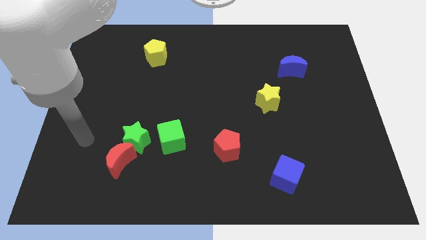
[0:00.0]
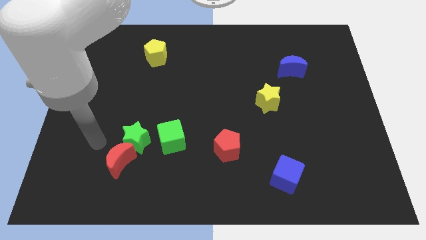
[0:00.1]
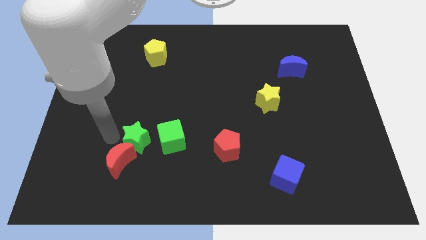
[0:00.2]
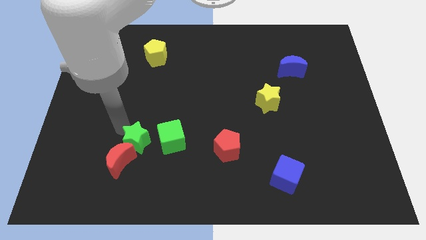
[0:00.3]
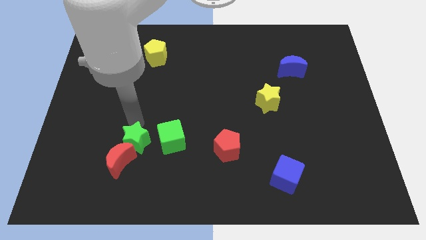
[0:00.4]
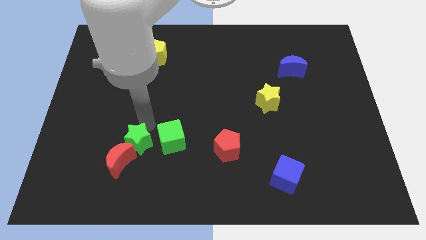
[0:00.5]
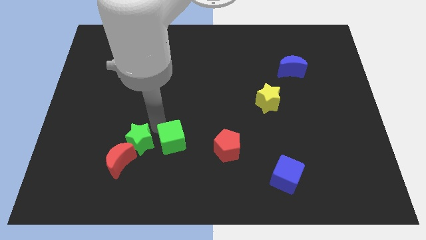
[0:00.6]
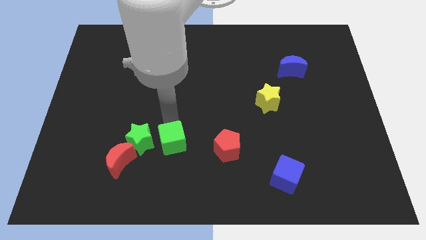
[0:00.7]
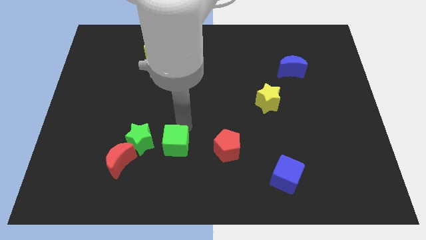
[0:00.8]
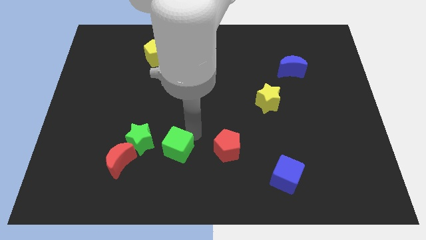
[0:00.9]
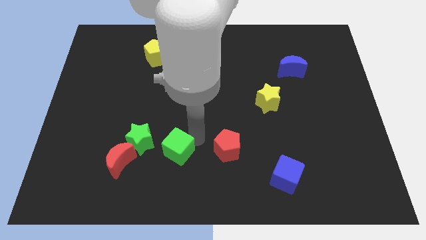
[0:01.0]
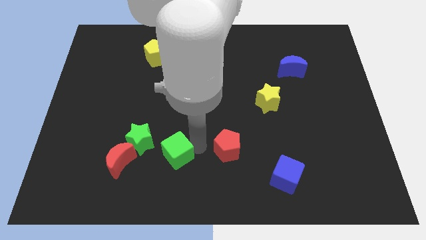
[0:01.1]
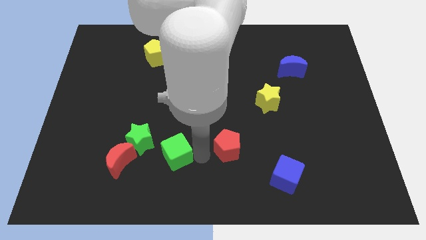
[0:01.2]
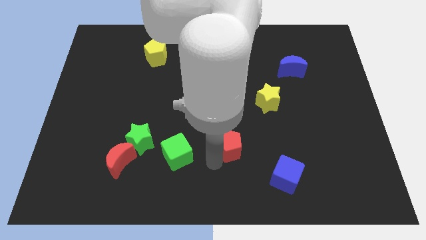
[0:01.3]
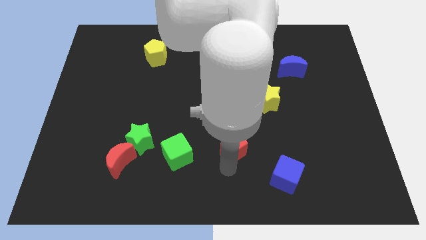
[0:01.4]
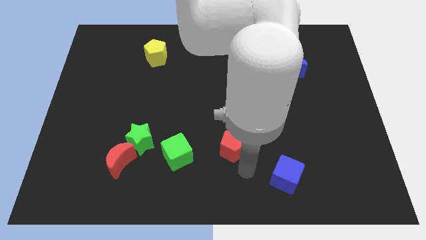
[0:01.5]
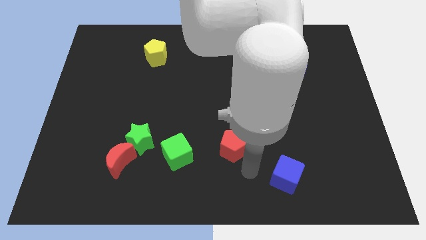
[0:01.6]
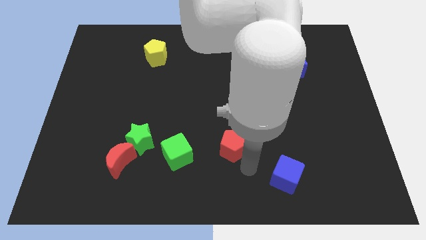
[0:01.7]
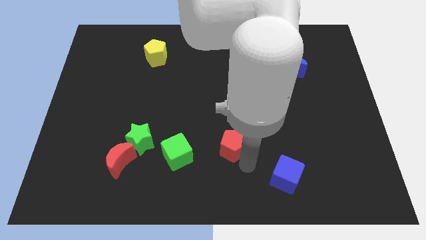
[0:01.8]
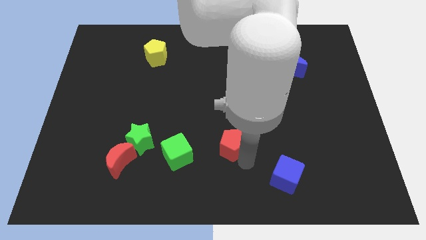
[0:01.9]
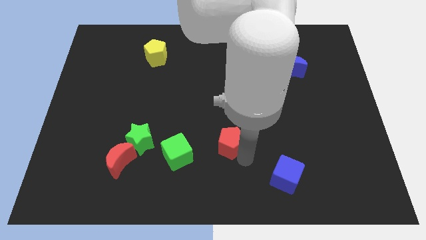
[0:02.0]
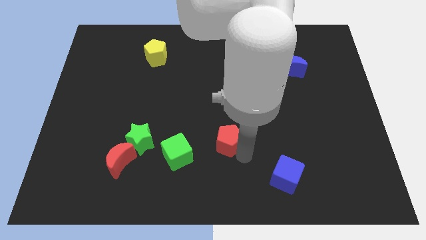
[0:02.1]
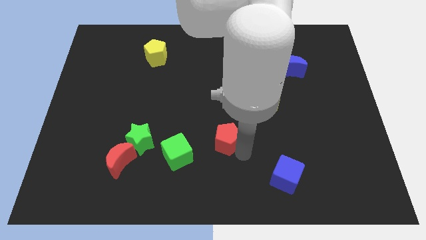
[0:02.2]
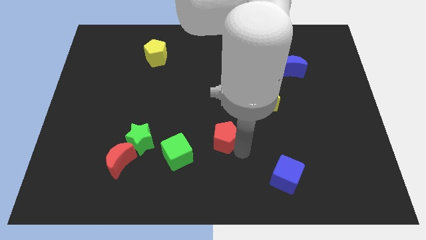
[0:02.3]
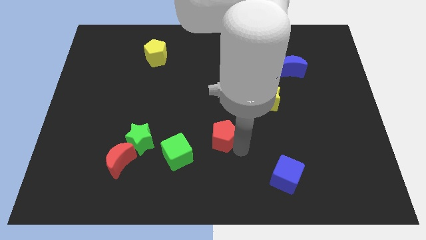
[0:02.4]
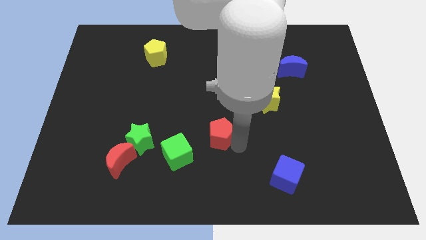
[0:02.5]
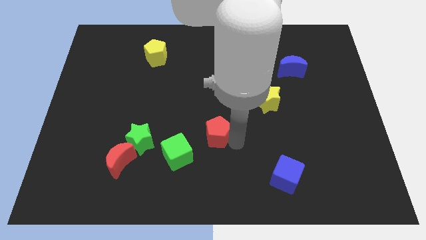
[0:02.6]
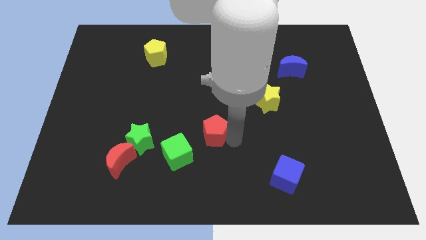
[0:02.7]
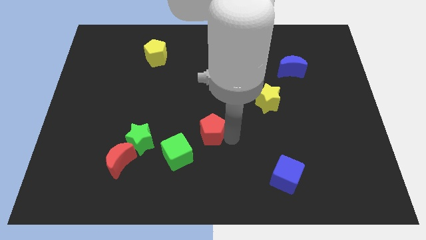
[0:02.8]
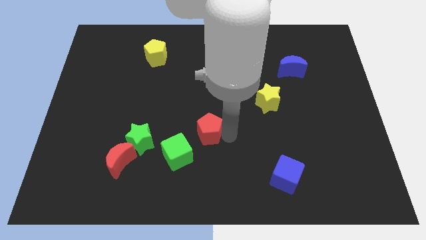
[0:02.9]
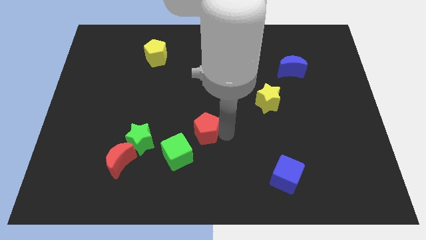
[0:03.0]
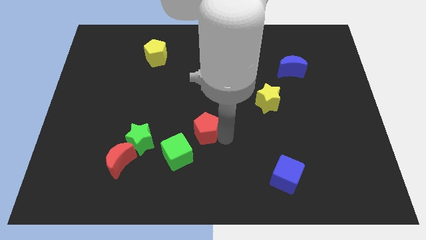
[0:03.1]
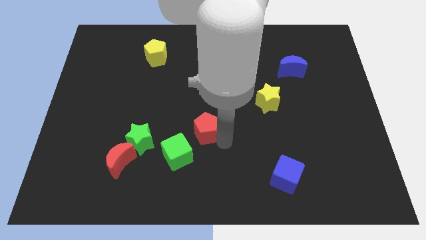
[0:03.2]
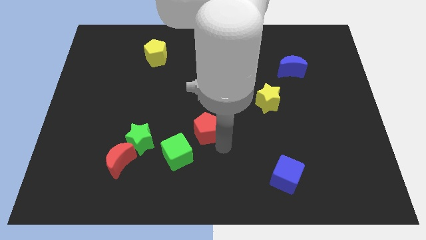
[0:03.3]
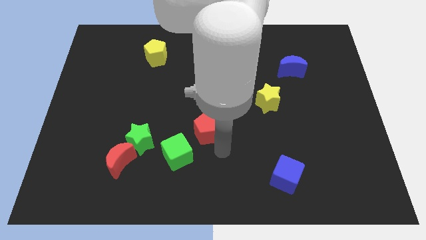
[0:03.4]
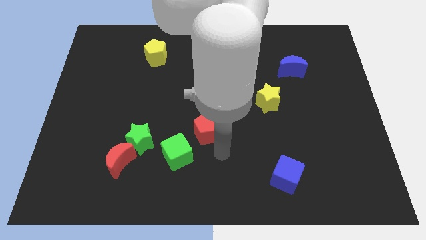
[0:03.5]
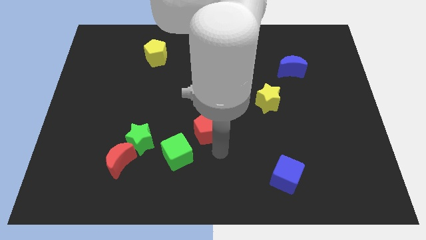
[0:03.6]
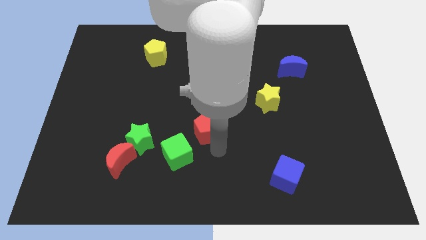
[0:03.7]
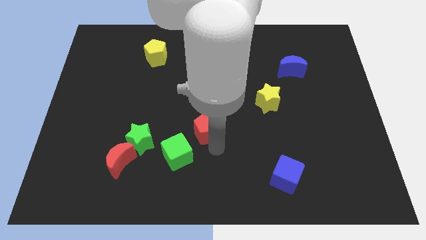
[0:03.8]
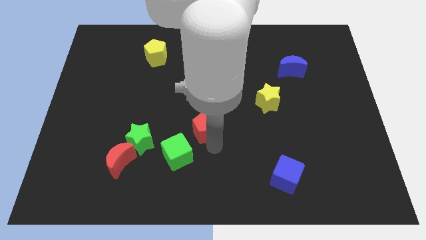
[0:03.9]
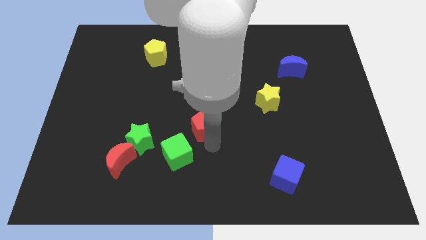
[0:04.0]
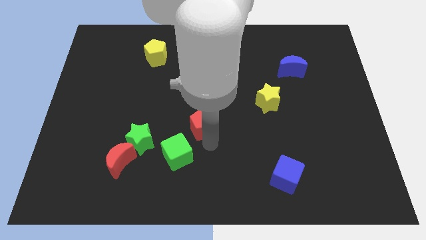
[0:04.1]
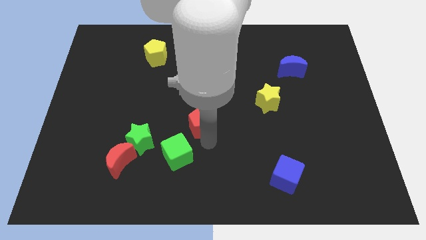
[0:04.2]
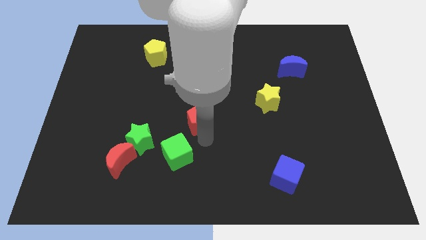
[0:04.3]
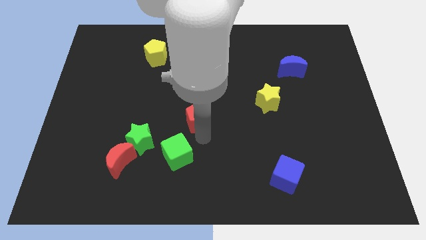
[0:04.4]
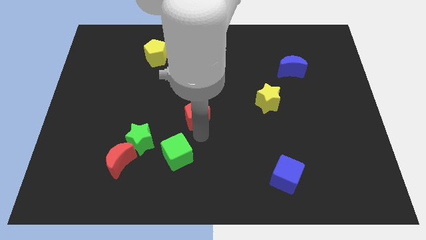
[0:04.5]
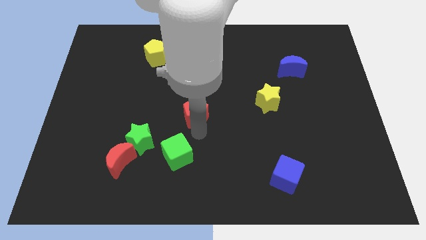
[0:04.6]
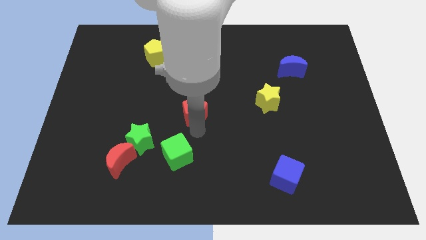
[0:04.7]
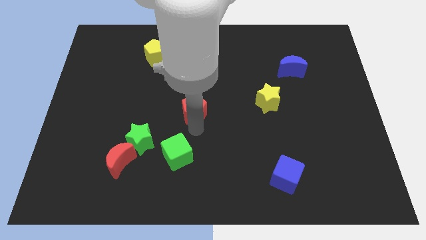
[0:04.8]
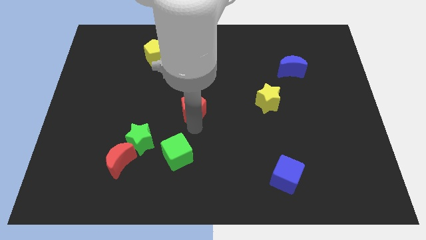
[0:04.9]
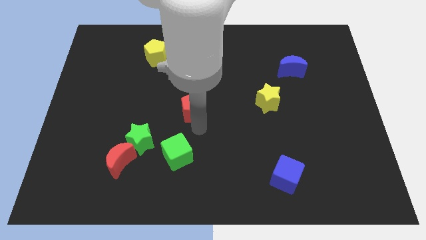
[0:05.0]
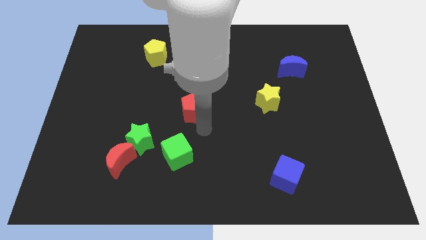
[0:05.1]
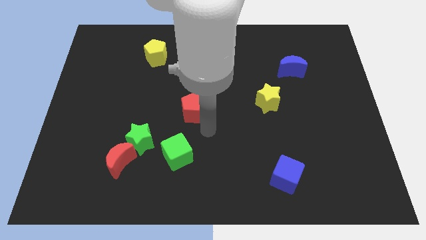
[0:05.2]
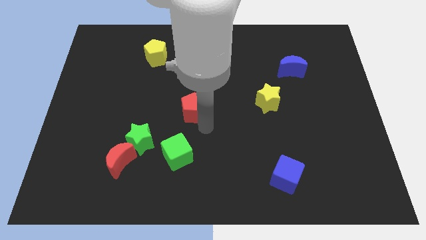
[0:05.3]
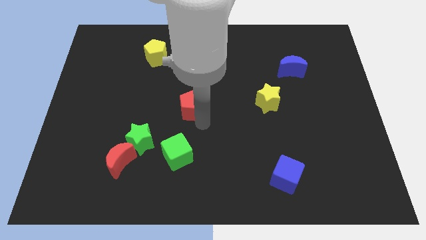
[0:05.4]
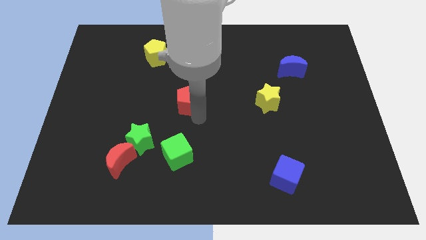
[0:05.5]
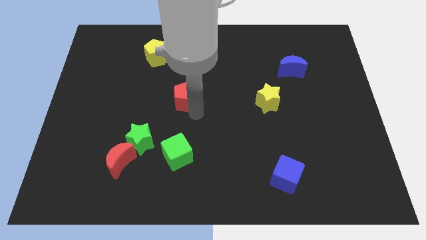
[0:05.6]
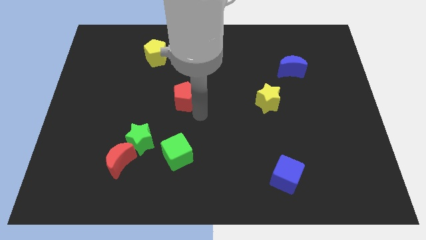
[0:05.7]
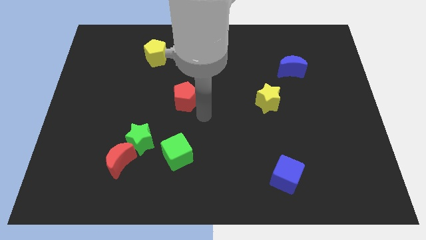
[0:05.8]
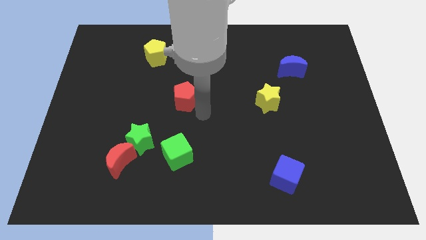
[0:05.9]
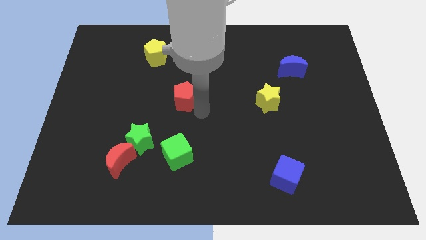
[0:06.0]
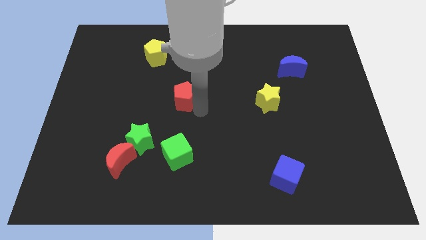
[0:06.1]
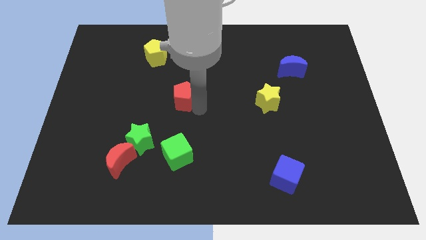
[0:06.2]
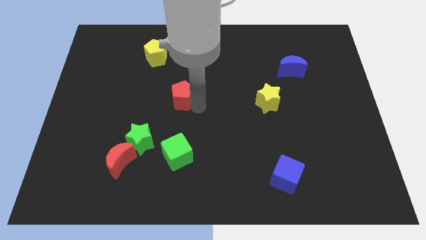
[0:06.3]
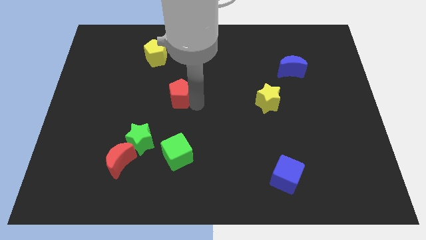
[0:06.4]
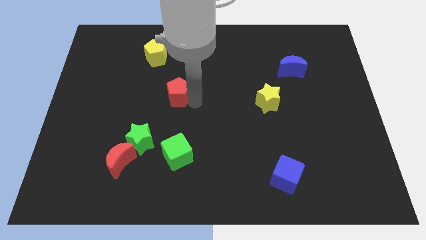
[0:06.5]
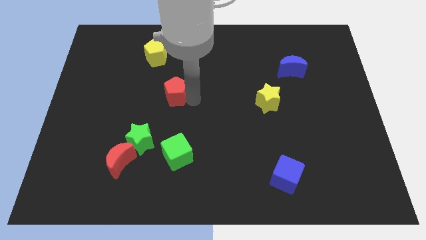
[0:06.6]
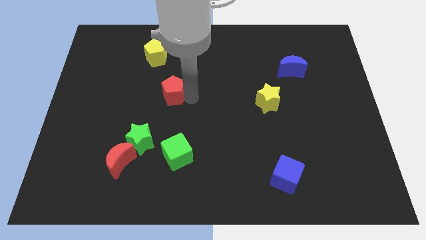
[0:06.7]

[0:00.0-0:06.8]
push the red pentagon up and left diagonally

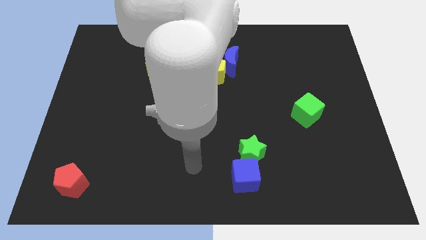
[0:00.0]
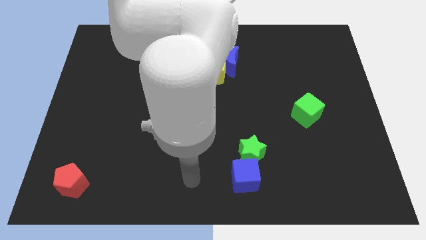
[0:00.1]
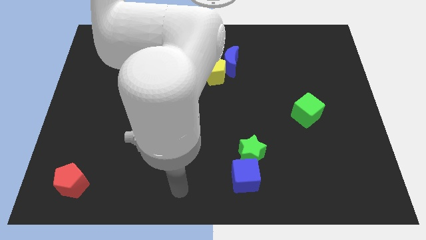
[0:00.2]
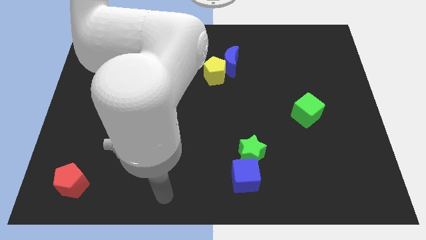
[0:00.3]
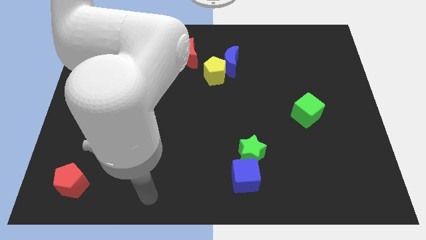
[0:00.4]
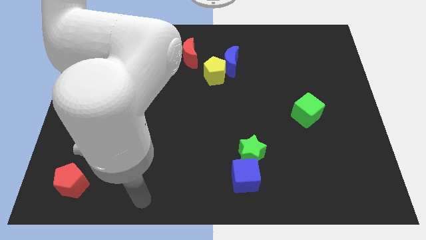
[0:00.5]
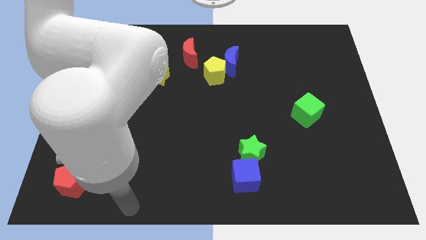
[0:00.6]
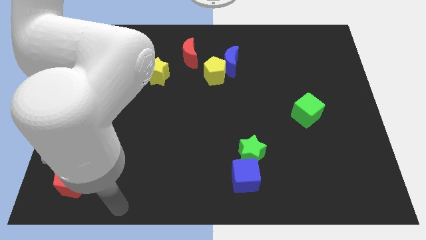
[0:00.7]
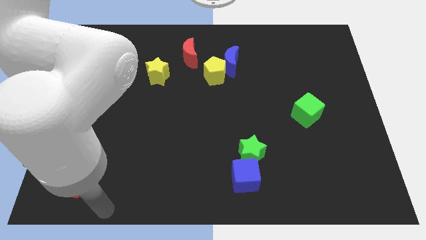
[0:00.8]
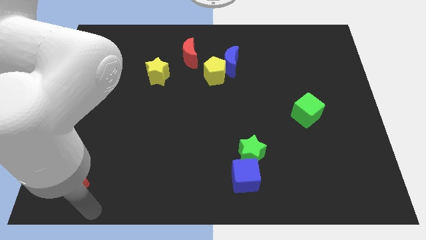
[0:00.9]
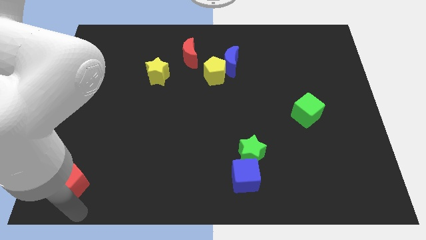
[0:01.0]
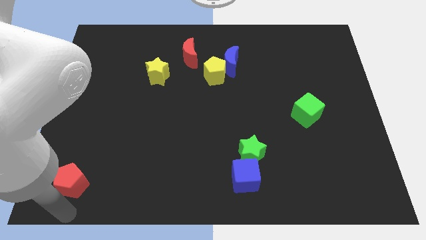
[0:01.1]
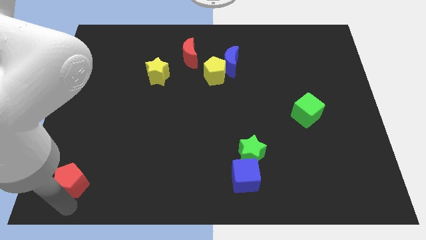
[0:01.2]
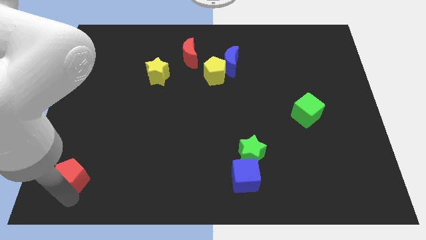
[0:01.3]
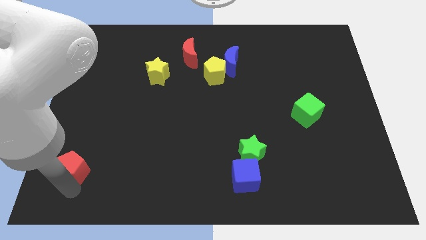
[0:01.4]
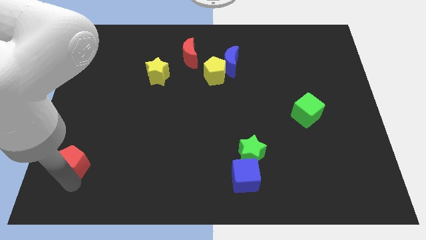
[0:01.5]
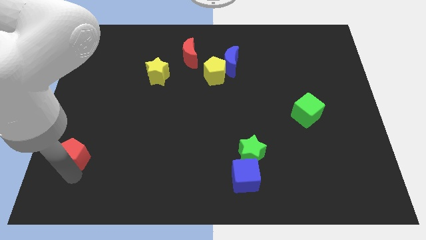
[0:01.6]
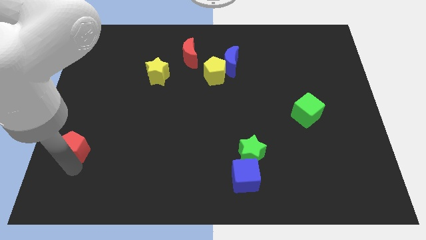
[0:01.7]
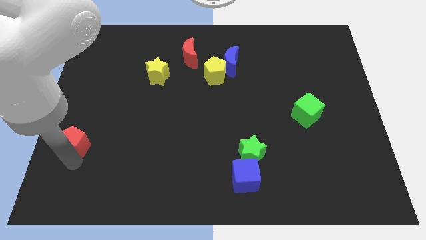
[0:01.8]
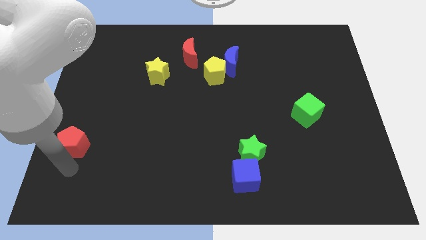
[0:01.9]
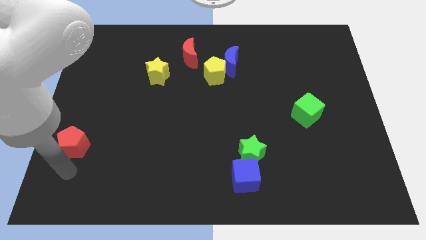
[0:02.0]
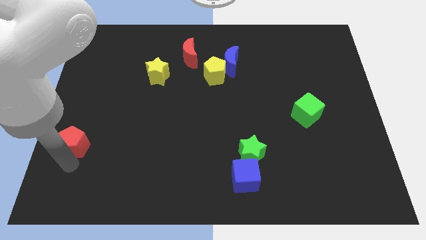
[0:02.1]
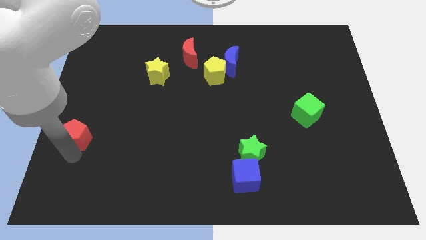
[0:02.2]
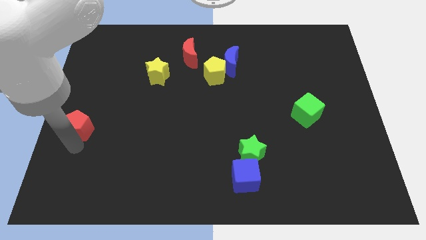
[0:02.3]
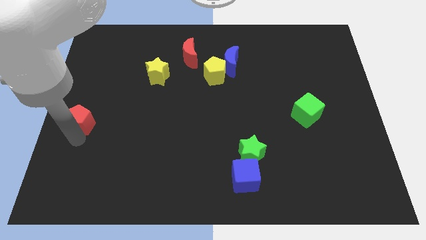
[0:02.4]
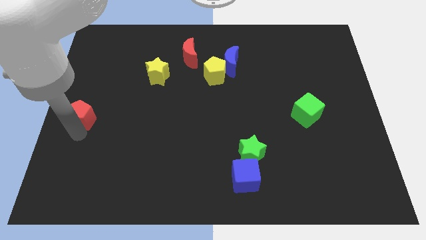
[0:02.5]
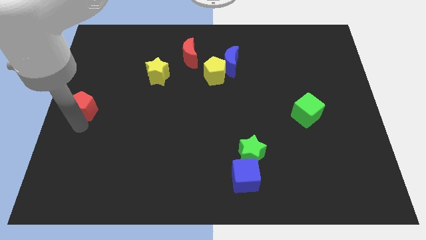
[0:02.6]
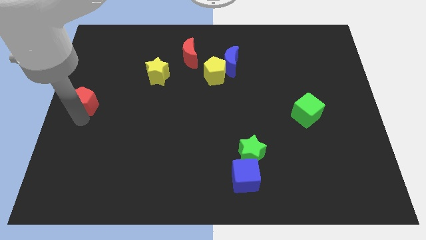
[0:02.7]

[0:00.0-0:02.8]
move the red pentagon up
